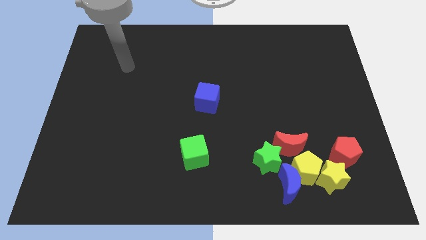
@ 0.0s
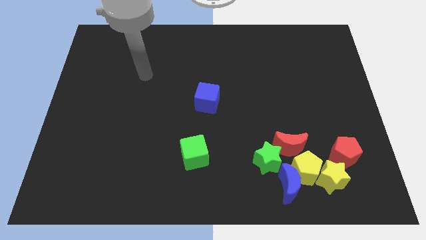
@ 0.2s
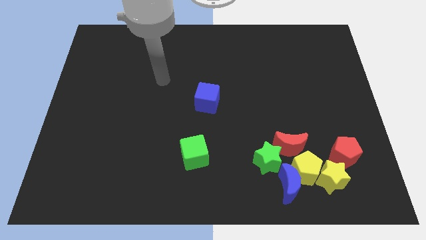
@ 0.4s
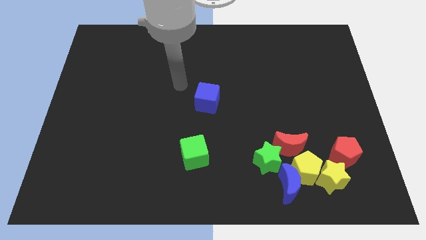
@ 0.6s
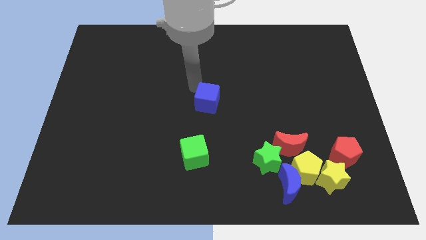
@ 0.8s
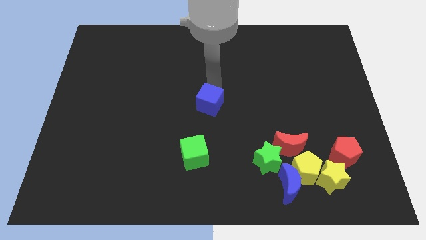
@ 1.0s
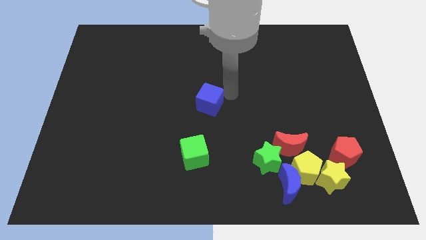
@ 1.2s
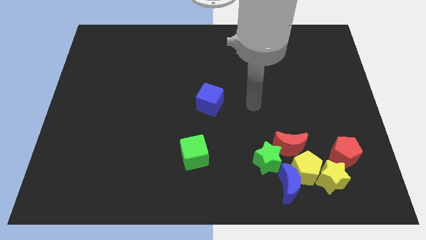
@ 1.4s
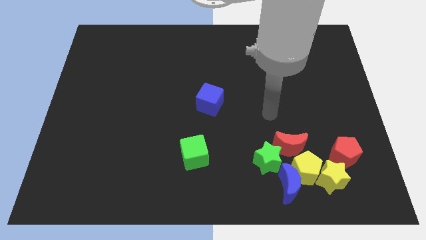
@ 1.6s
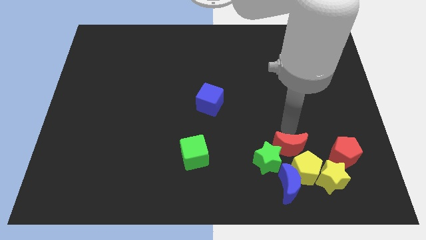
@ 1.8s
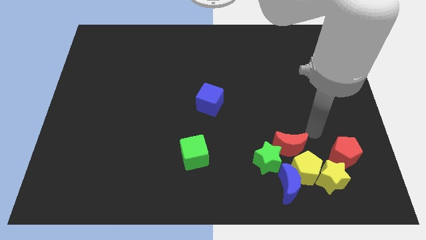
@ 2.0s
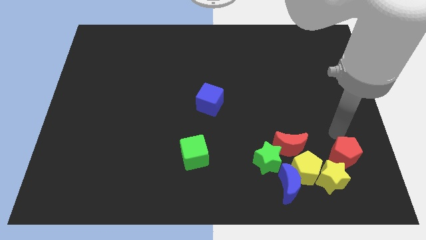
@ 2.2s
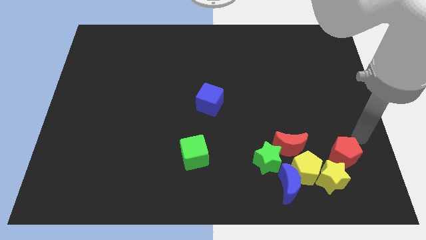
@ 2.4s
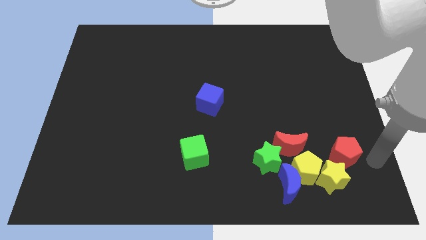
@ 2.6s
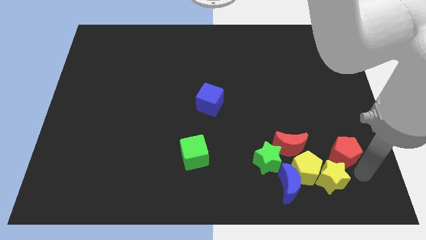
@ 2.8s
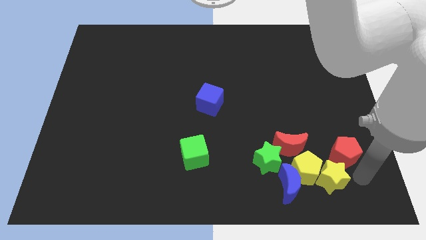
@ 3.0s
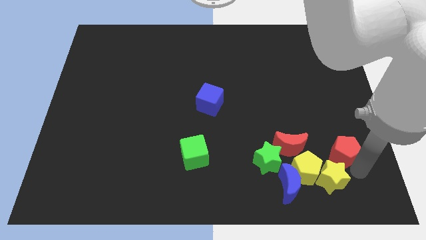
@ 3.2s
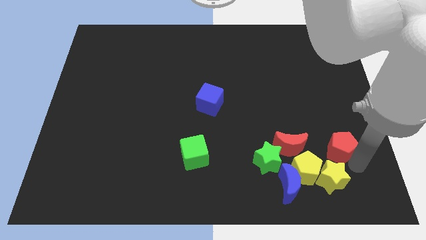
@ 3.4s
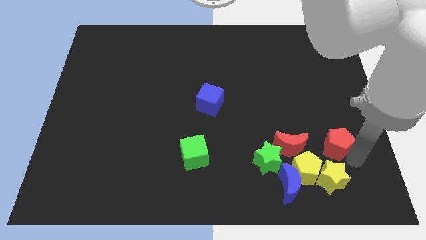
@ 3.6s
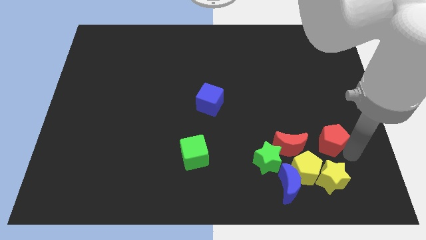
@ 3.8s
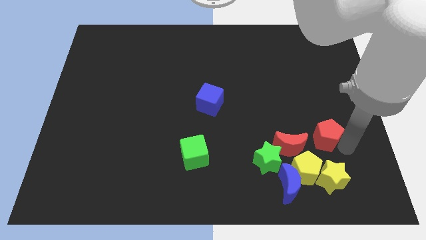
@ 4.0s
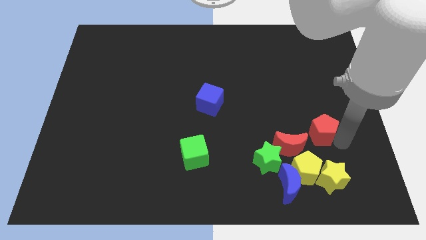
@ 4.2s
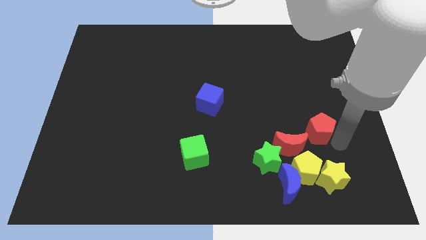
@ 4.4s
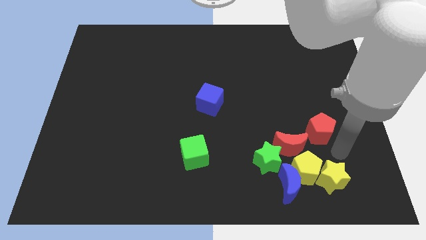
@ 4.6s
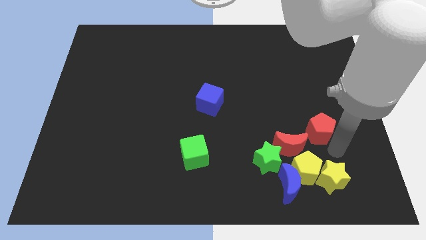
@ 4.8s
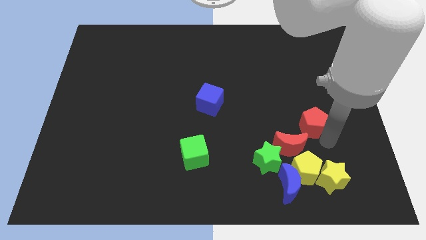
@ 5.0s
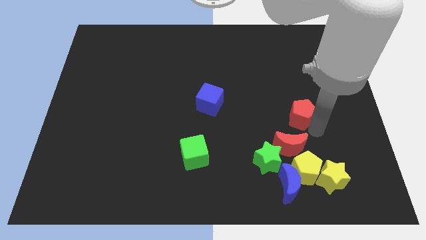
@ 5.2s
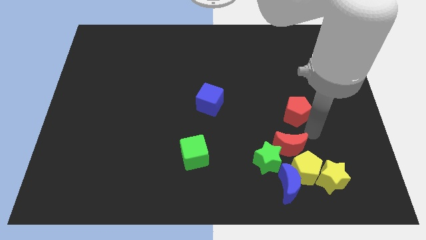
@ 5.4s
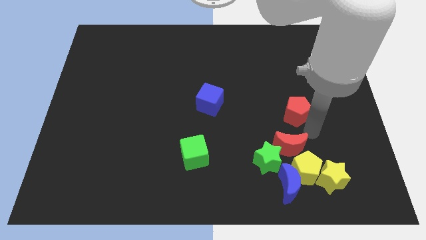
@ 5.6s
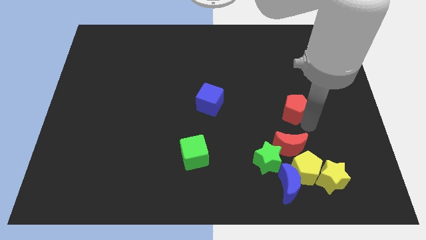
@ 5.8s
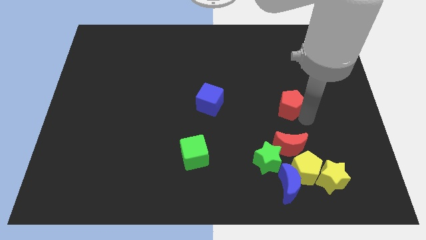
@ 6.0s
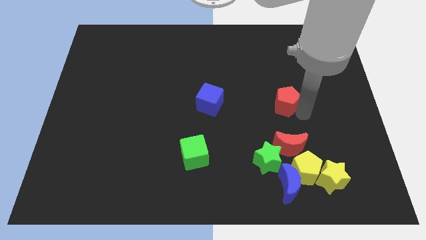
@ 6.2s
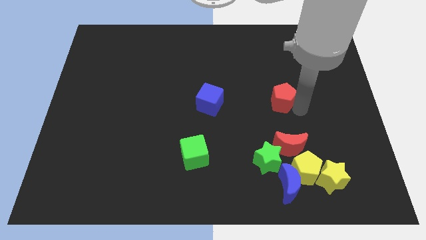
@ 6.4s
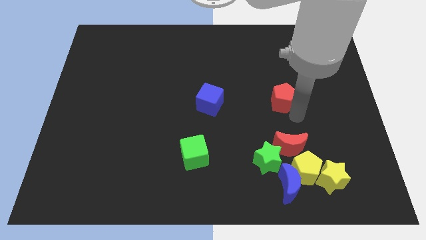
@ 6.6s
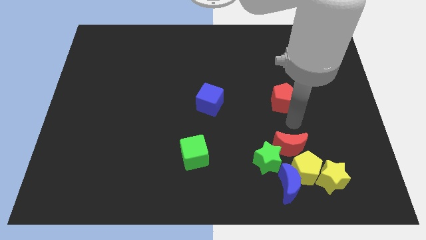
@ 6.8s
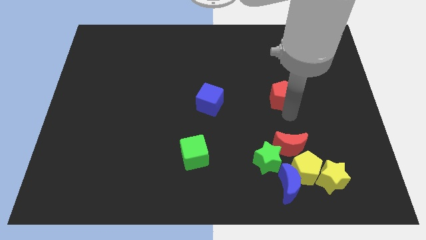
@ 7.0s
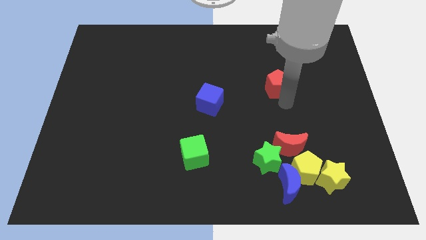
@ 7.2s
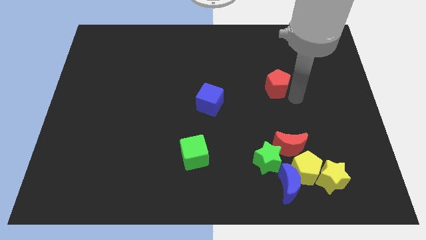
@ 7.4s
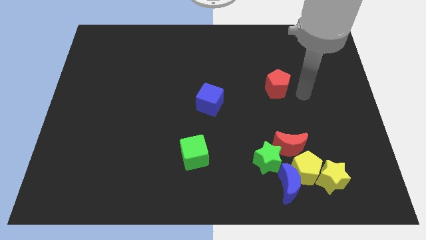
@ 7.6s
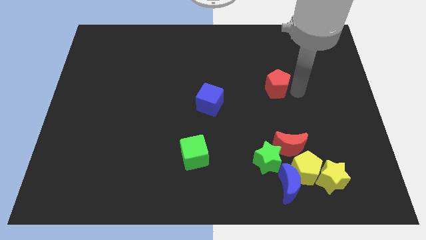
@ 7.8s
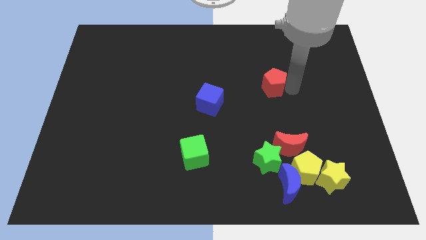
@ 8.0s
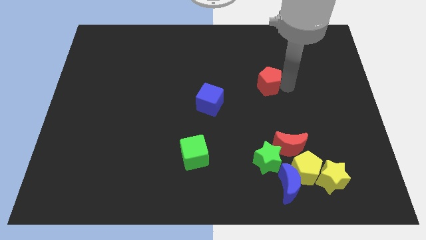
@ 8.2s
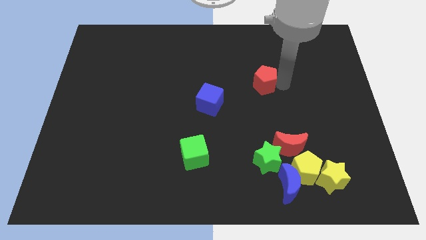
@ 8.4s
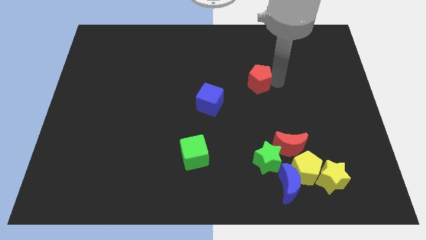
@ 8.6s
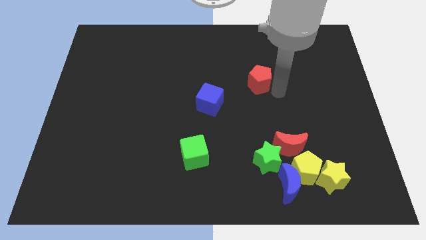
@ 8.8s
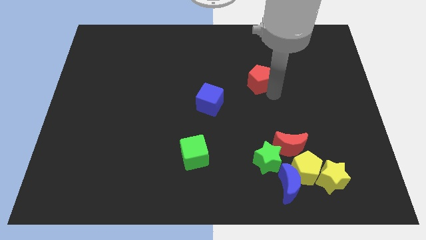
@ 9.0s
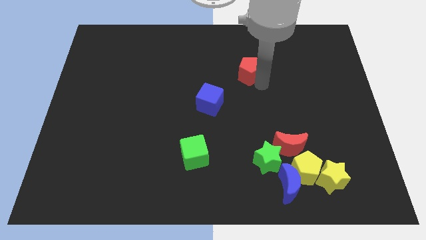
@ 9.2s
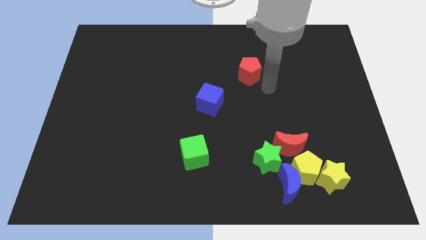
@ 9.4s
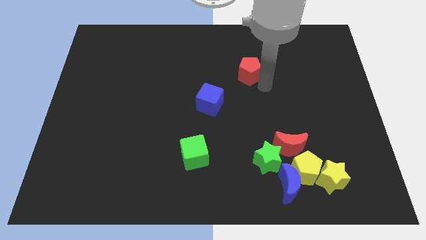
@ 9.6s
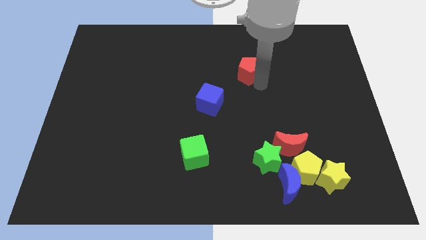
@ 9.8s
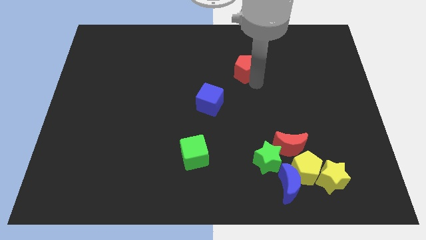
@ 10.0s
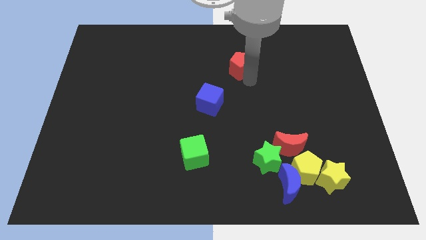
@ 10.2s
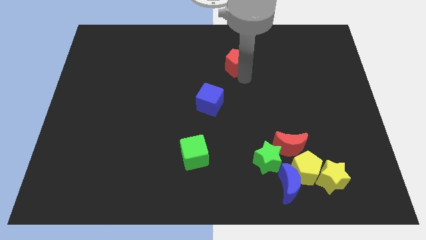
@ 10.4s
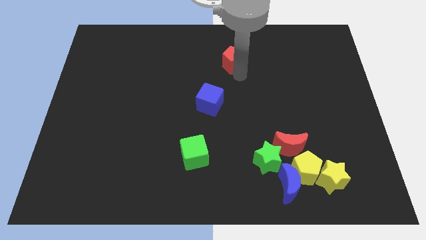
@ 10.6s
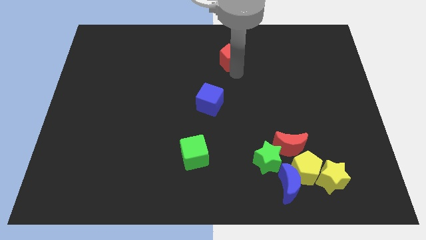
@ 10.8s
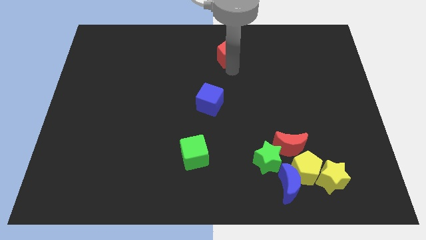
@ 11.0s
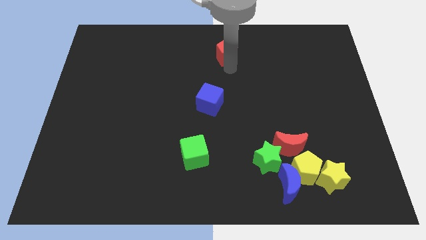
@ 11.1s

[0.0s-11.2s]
push the red pentagon to the towards your base
